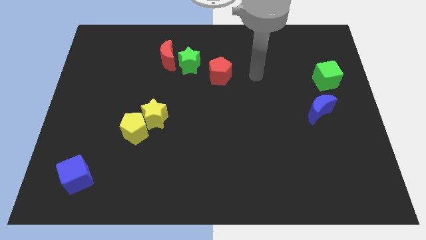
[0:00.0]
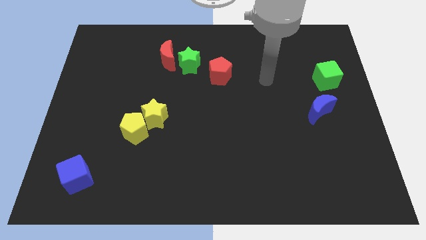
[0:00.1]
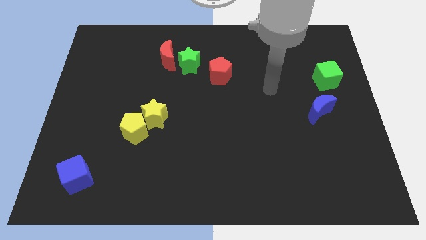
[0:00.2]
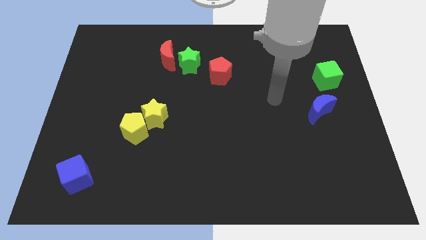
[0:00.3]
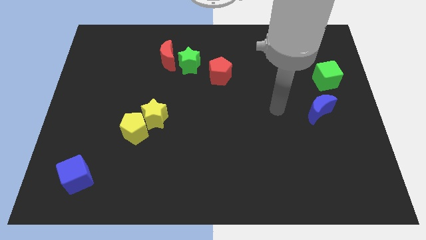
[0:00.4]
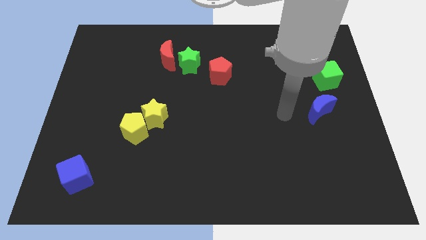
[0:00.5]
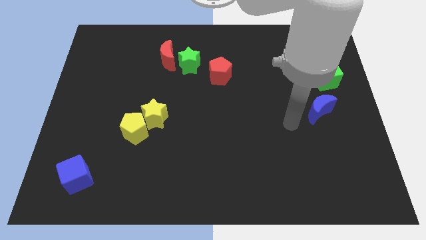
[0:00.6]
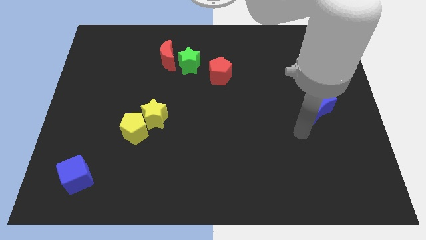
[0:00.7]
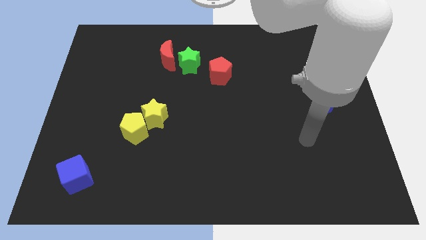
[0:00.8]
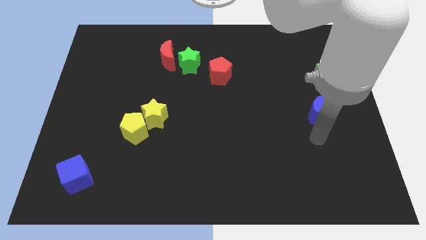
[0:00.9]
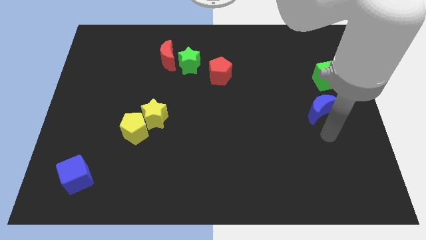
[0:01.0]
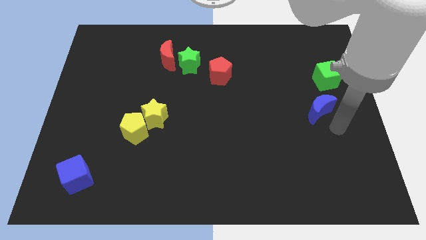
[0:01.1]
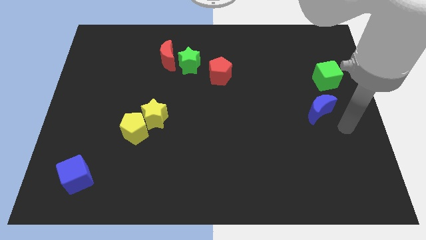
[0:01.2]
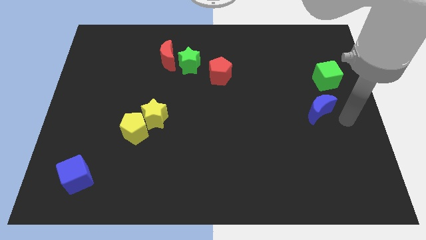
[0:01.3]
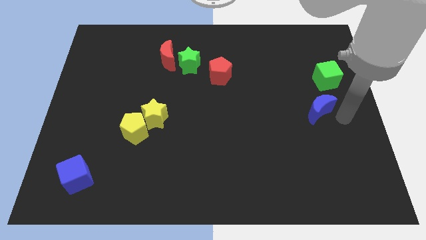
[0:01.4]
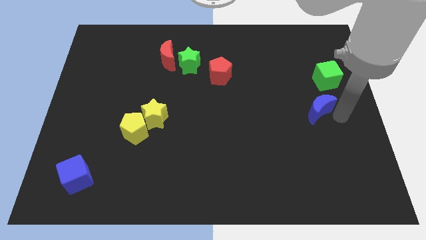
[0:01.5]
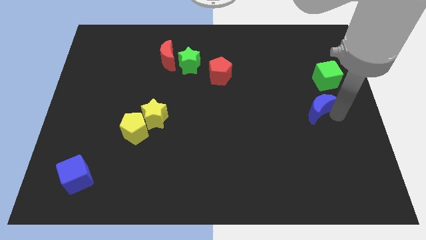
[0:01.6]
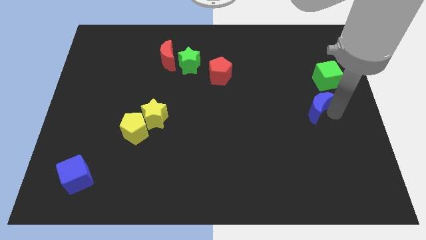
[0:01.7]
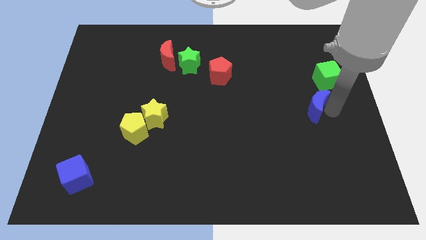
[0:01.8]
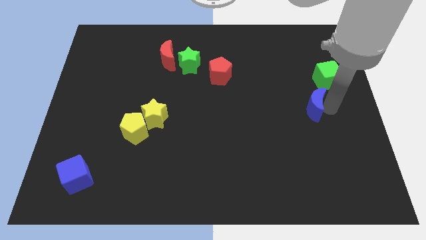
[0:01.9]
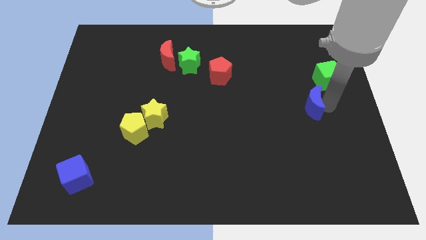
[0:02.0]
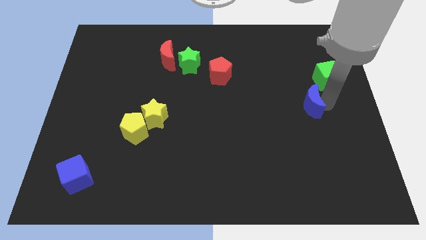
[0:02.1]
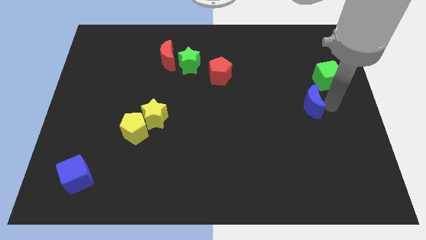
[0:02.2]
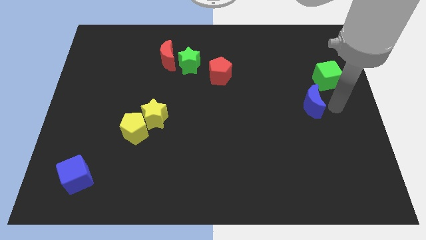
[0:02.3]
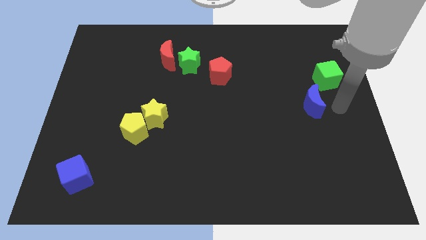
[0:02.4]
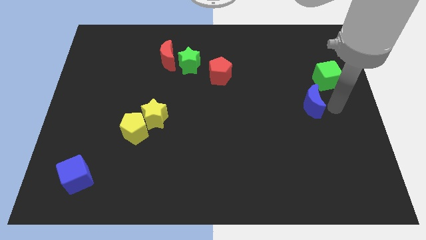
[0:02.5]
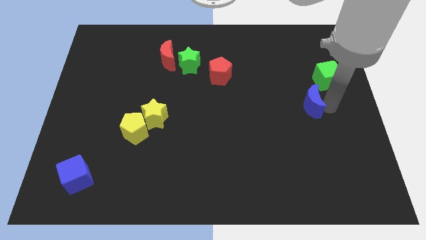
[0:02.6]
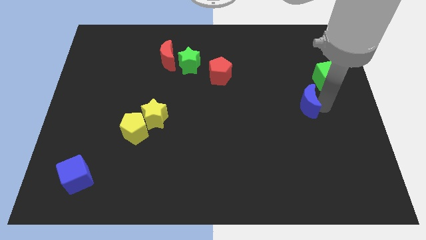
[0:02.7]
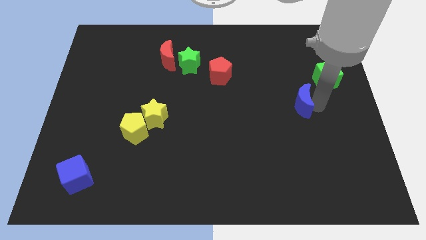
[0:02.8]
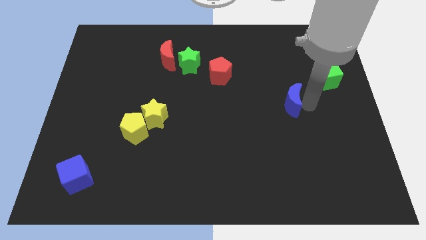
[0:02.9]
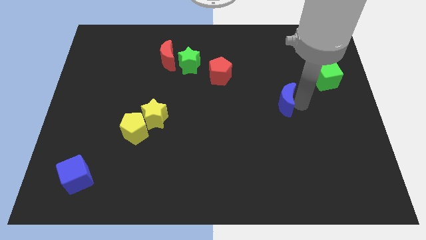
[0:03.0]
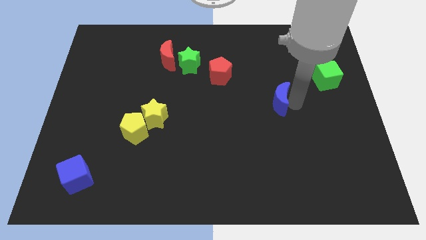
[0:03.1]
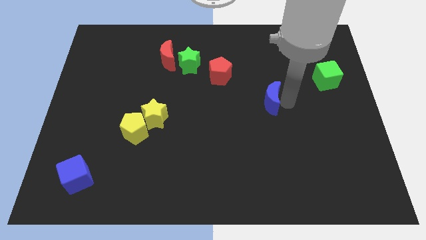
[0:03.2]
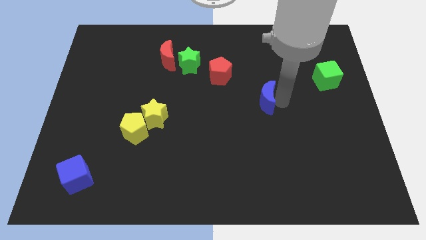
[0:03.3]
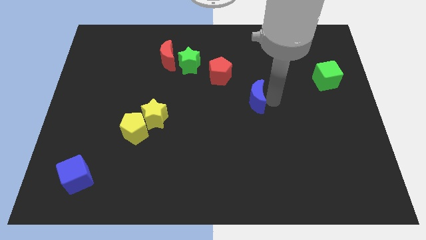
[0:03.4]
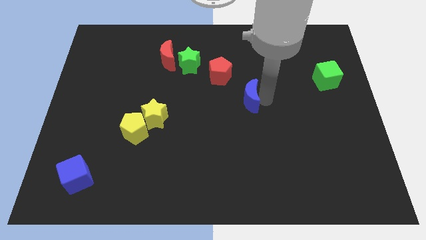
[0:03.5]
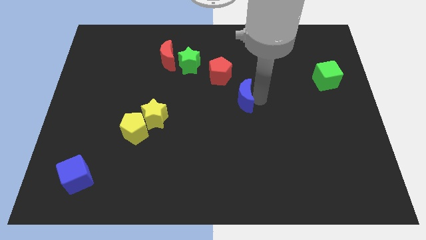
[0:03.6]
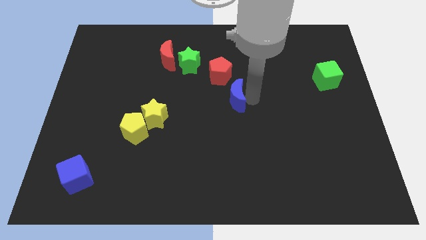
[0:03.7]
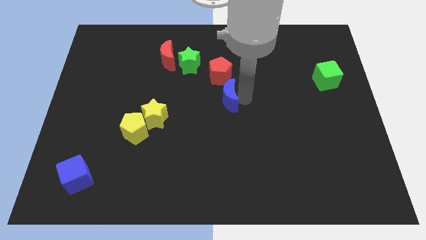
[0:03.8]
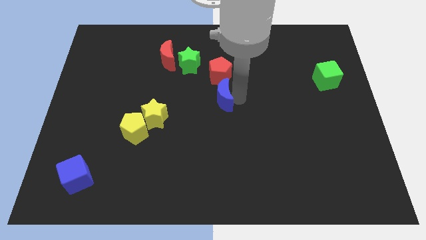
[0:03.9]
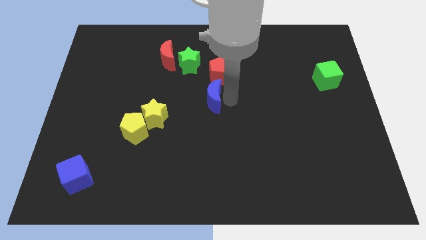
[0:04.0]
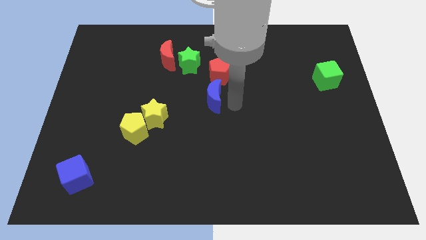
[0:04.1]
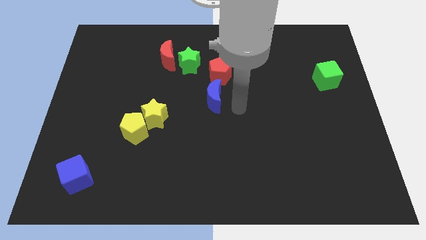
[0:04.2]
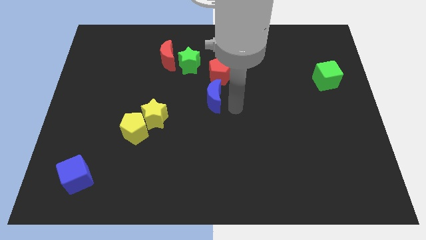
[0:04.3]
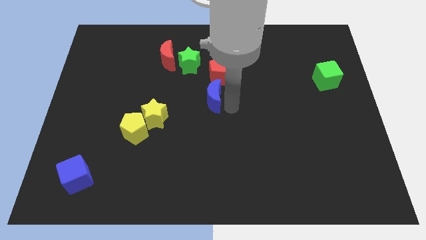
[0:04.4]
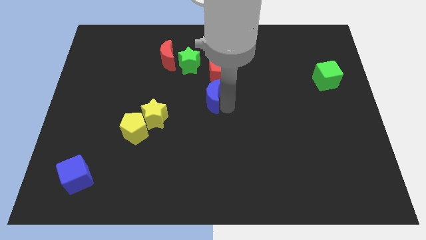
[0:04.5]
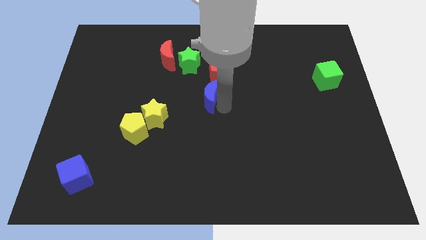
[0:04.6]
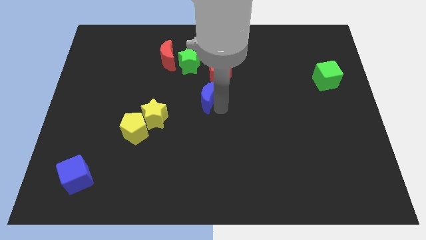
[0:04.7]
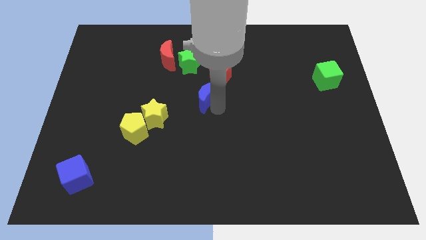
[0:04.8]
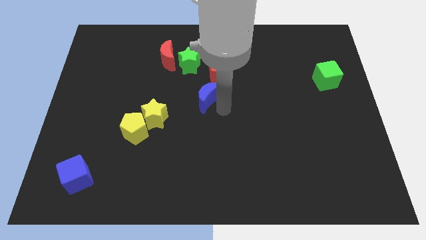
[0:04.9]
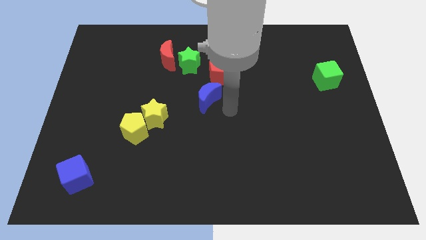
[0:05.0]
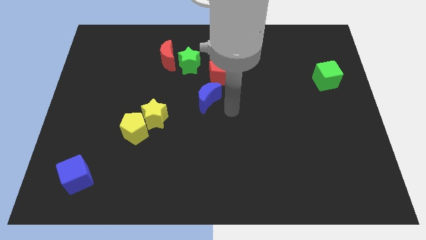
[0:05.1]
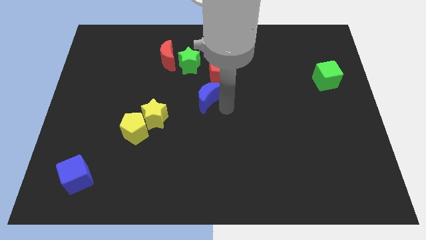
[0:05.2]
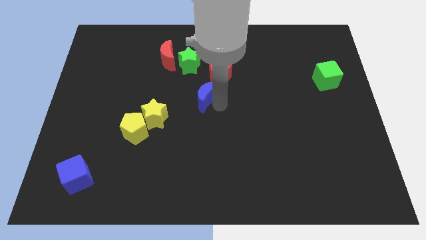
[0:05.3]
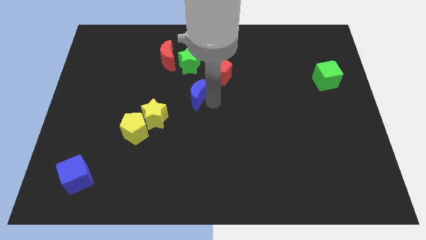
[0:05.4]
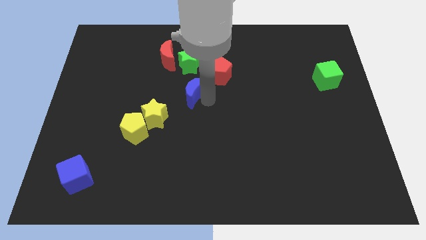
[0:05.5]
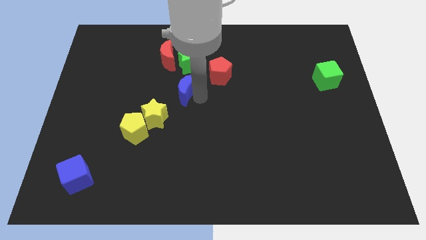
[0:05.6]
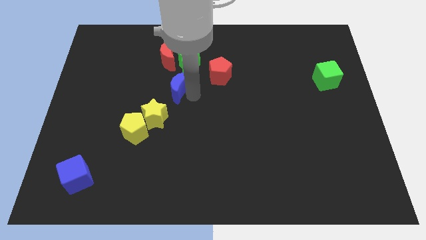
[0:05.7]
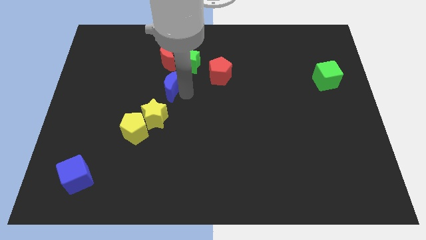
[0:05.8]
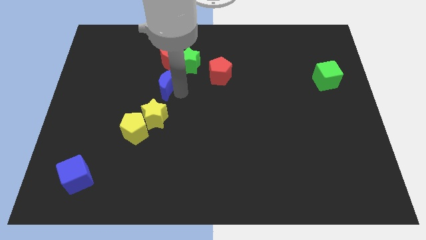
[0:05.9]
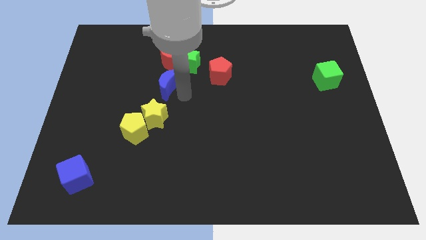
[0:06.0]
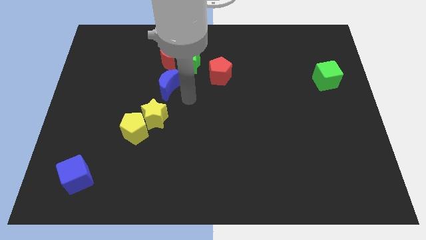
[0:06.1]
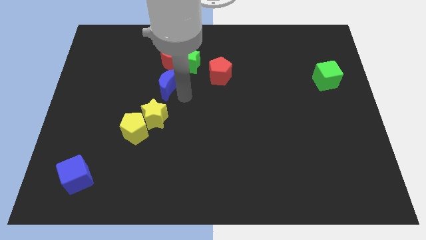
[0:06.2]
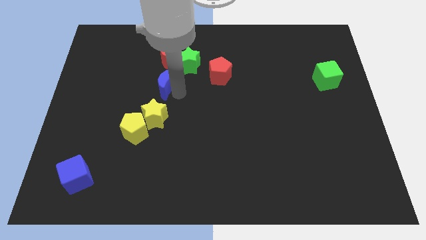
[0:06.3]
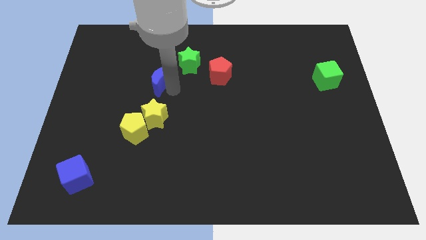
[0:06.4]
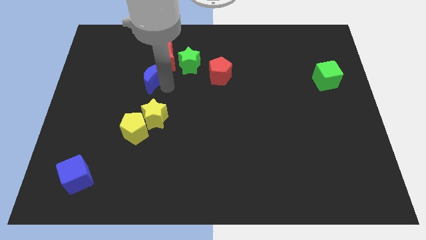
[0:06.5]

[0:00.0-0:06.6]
put the blue moon to the bottom left of the red moon

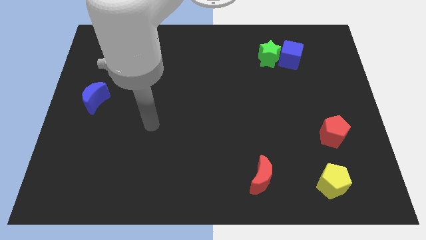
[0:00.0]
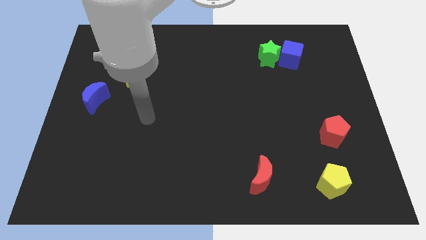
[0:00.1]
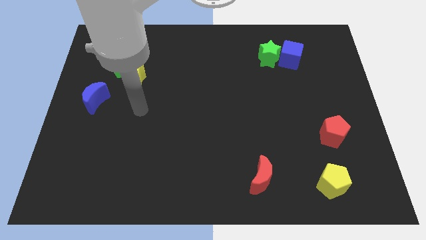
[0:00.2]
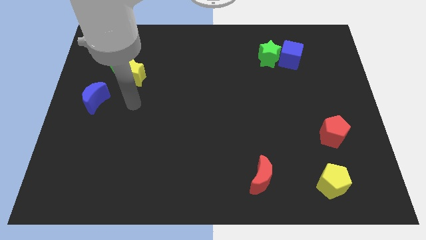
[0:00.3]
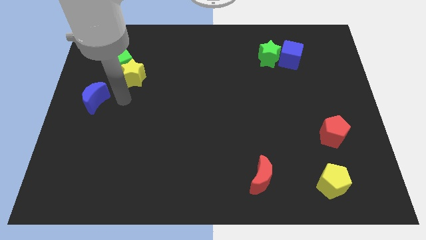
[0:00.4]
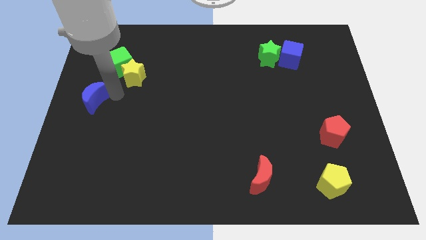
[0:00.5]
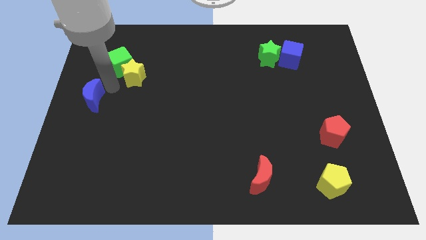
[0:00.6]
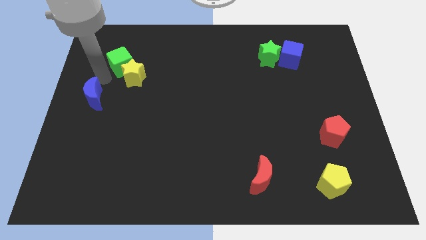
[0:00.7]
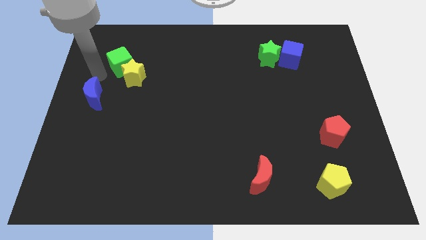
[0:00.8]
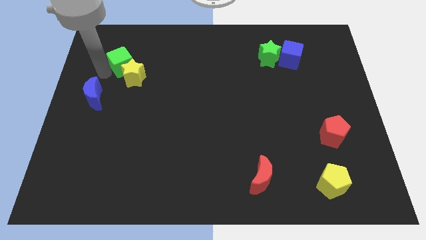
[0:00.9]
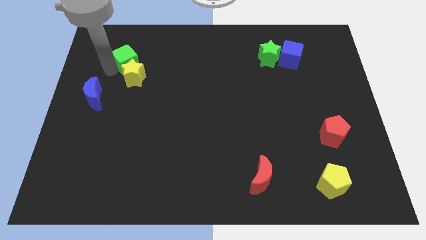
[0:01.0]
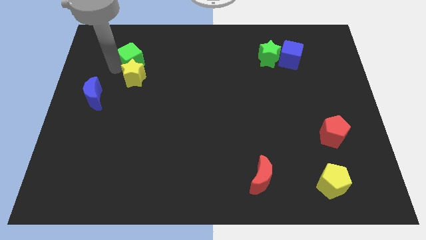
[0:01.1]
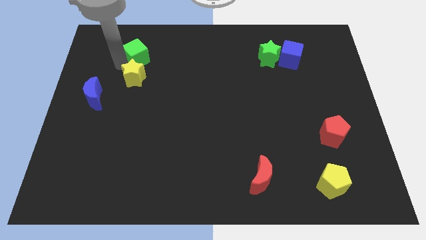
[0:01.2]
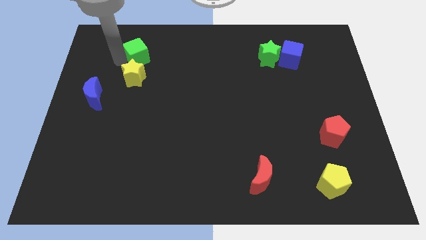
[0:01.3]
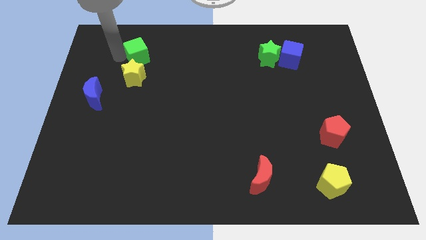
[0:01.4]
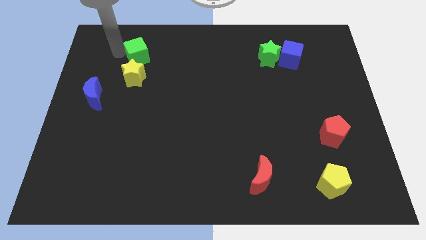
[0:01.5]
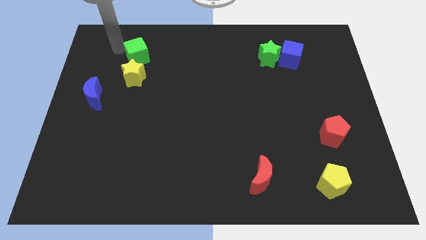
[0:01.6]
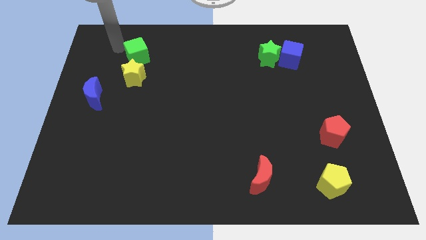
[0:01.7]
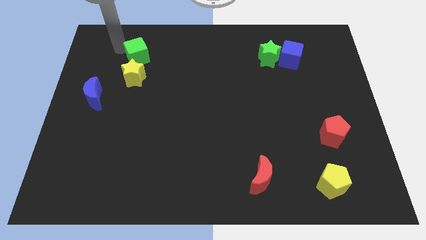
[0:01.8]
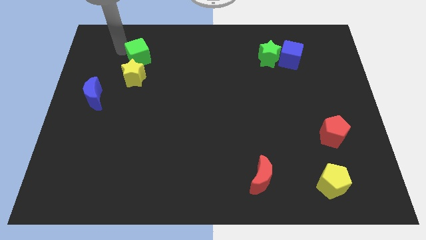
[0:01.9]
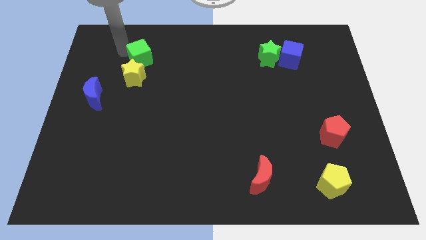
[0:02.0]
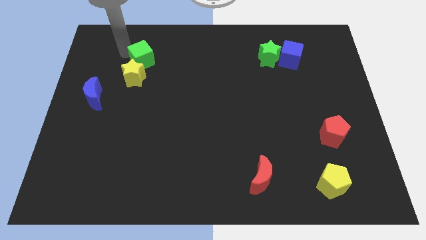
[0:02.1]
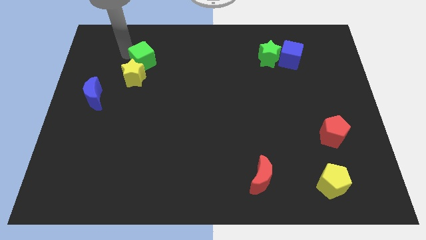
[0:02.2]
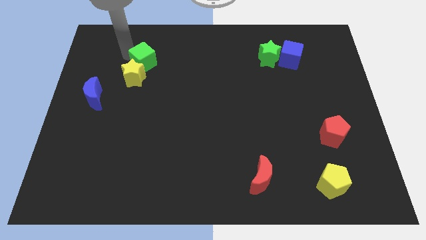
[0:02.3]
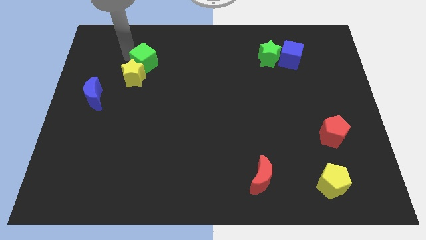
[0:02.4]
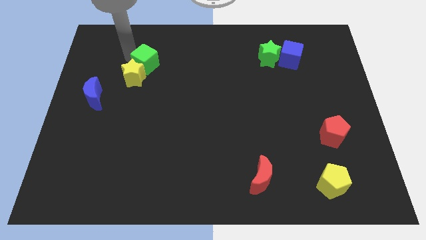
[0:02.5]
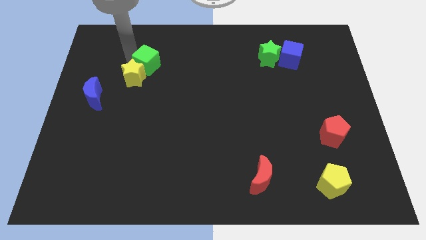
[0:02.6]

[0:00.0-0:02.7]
move the green cube just right of the yellow star
